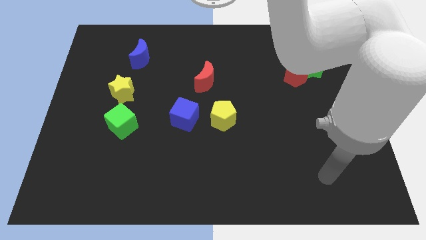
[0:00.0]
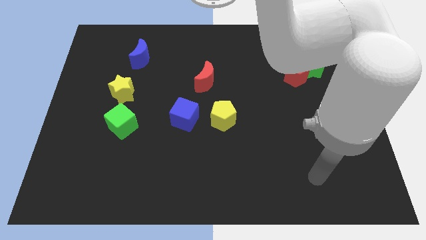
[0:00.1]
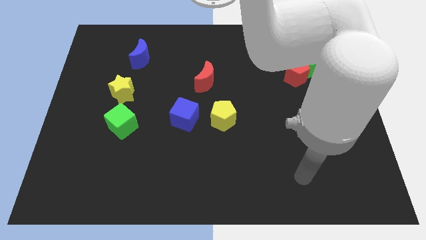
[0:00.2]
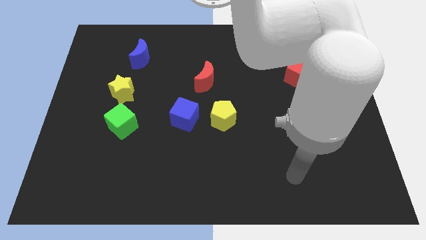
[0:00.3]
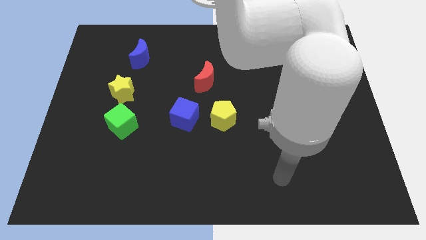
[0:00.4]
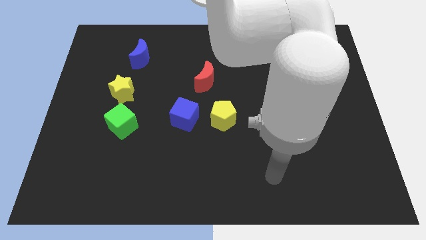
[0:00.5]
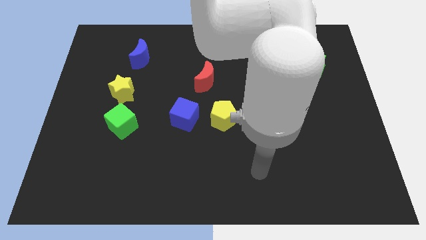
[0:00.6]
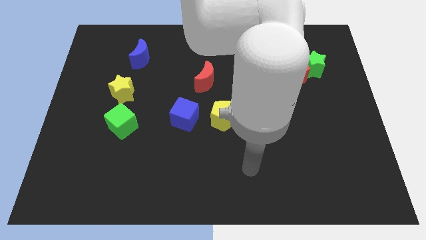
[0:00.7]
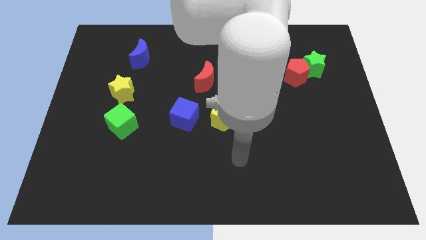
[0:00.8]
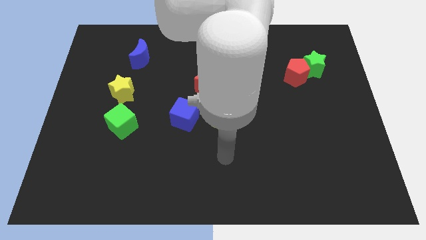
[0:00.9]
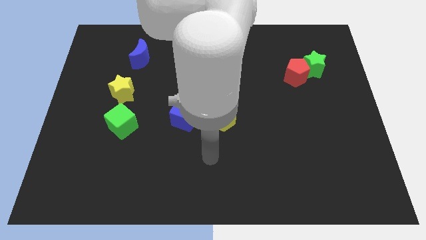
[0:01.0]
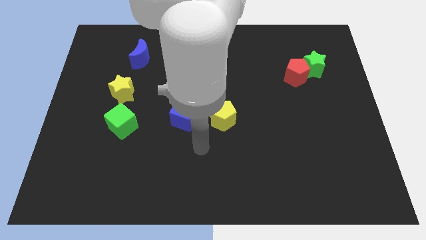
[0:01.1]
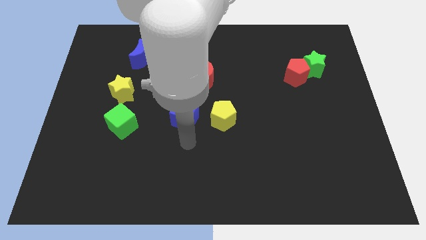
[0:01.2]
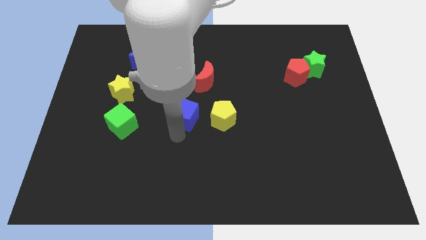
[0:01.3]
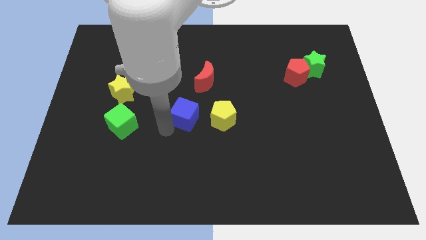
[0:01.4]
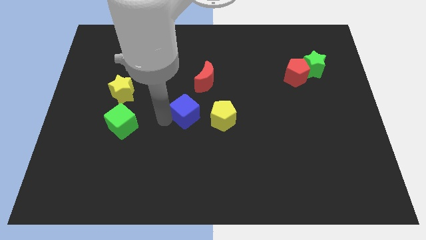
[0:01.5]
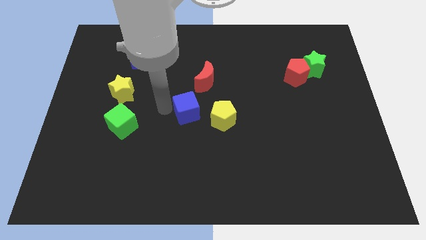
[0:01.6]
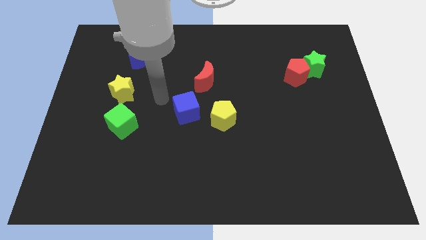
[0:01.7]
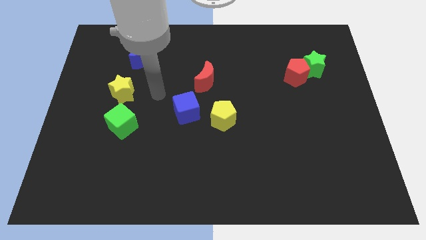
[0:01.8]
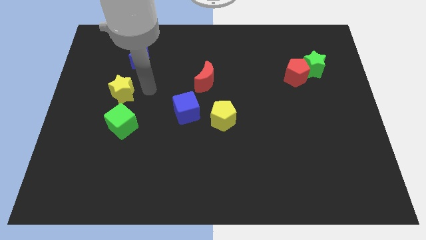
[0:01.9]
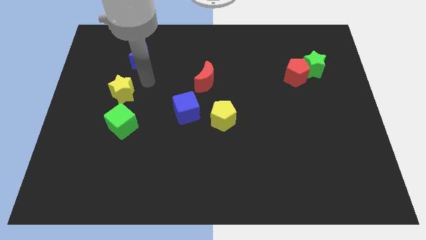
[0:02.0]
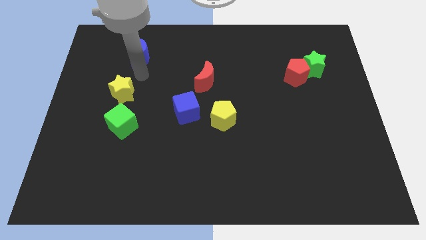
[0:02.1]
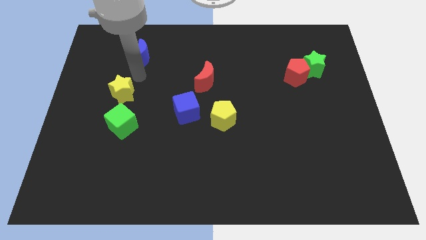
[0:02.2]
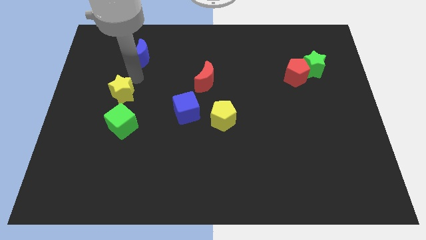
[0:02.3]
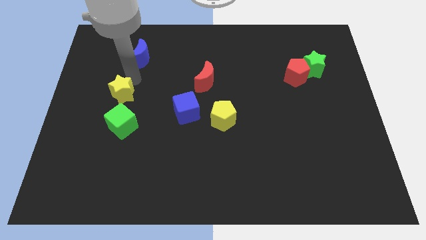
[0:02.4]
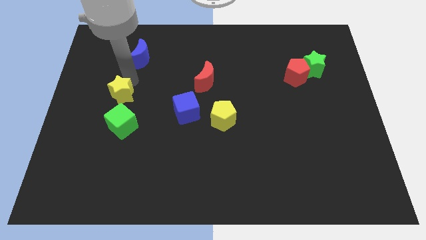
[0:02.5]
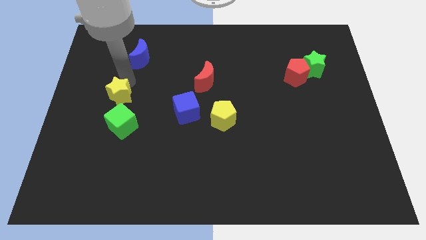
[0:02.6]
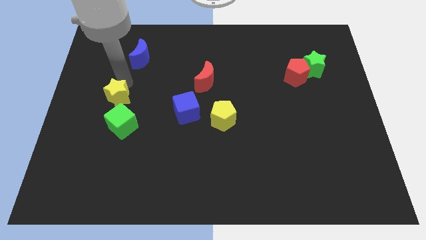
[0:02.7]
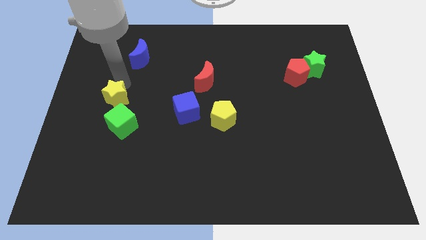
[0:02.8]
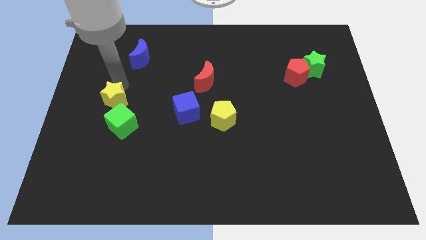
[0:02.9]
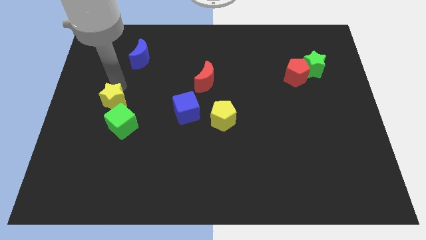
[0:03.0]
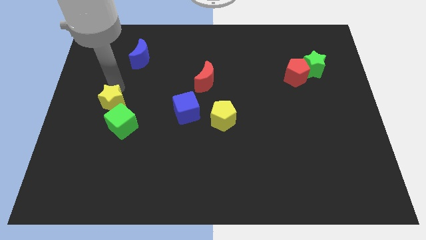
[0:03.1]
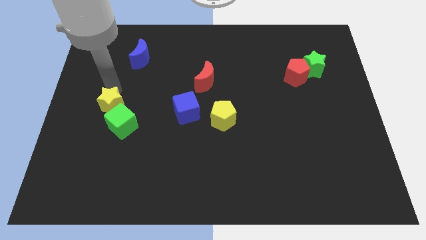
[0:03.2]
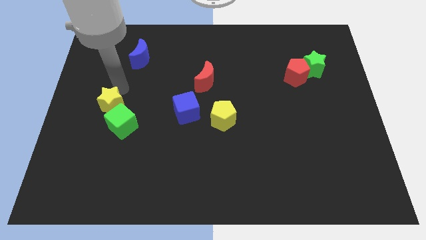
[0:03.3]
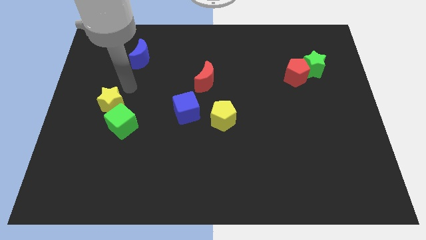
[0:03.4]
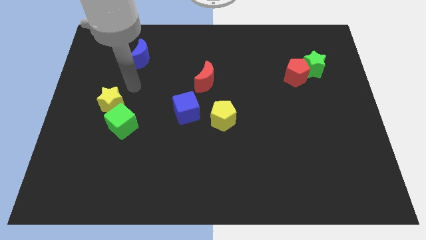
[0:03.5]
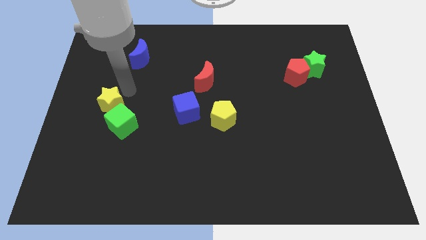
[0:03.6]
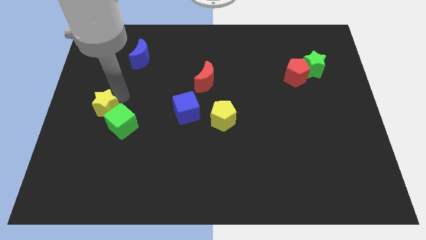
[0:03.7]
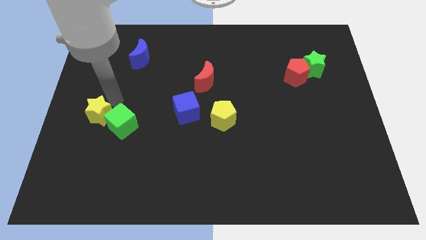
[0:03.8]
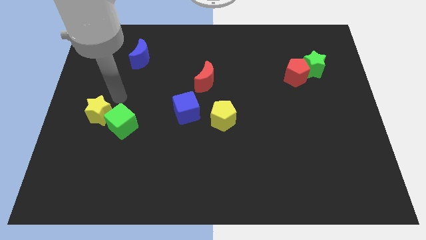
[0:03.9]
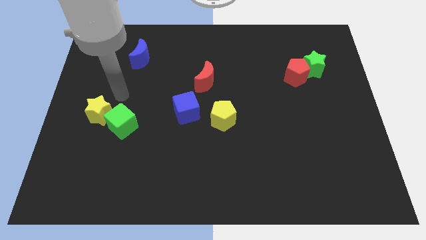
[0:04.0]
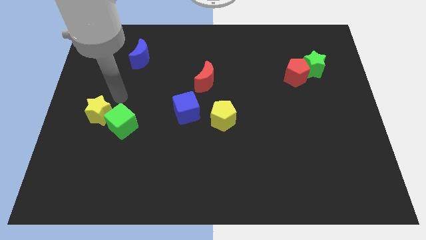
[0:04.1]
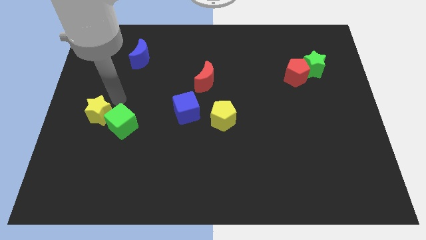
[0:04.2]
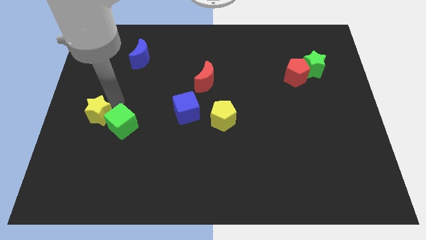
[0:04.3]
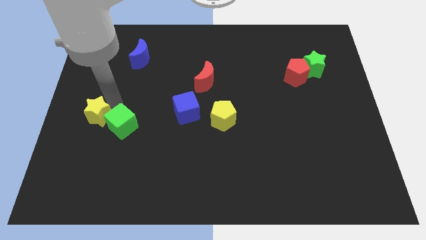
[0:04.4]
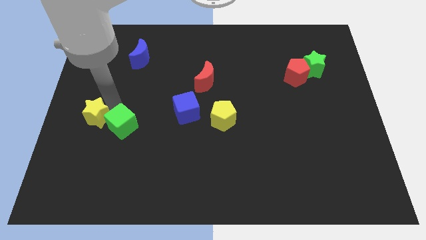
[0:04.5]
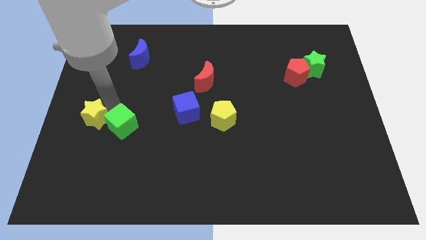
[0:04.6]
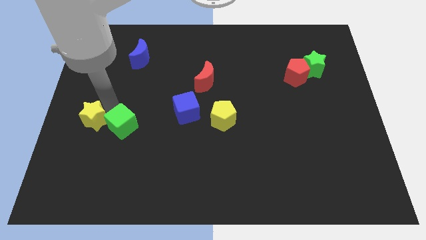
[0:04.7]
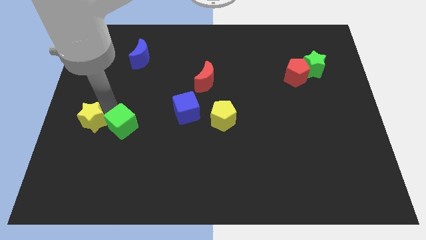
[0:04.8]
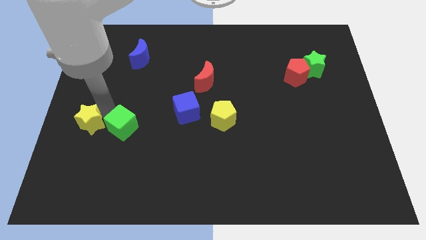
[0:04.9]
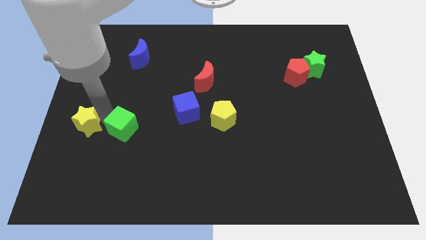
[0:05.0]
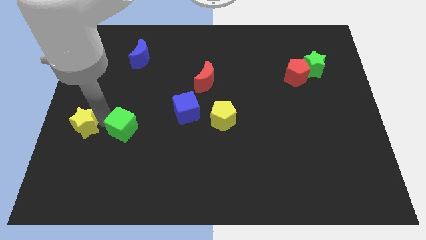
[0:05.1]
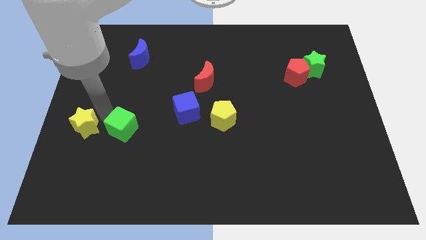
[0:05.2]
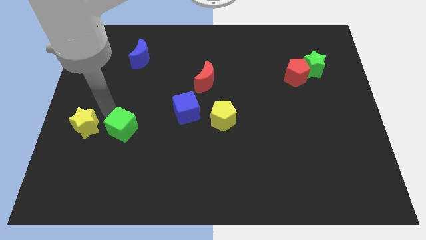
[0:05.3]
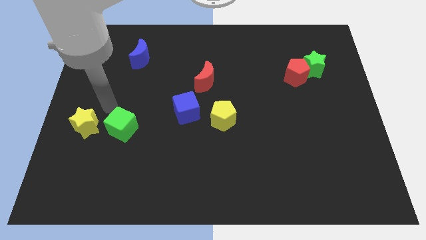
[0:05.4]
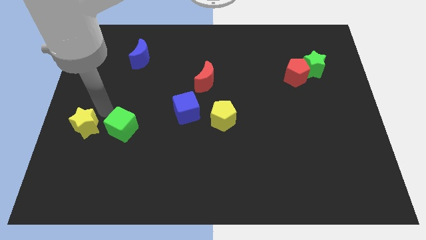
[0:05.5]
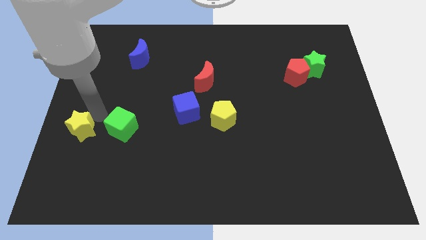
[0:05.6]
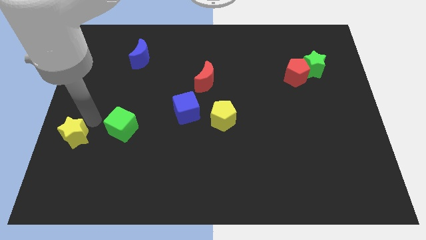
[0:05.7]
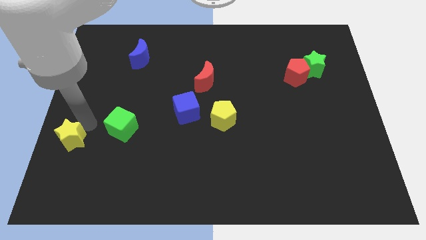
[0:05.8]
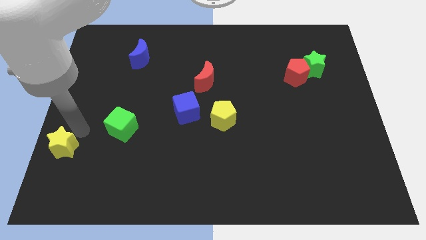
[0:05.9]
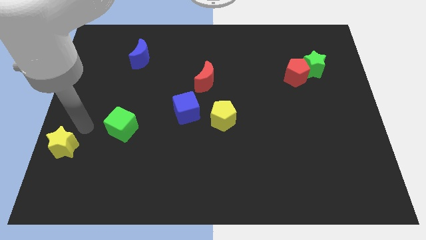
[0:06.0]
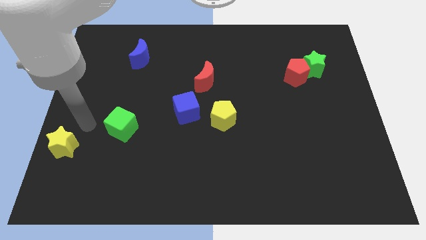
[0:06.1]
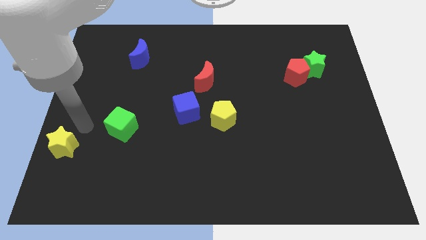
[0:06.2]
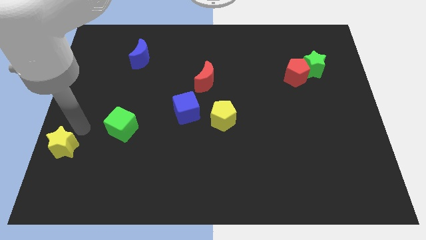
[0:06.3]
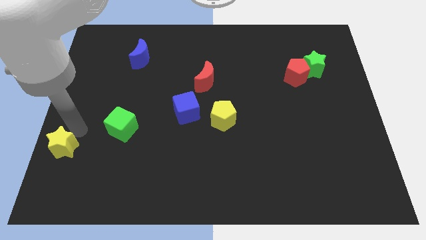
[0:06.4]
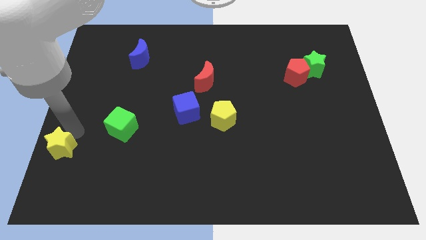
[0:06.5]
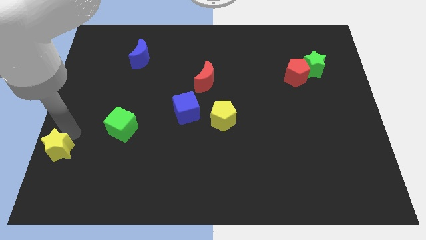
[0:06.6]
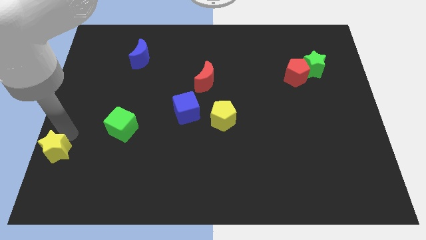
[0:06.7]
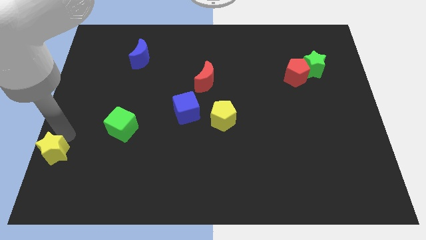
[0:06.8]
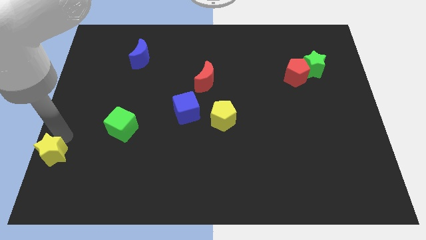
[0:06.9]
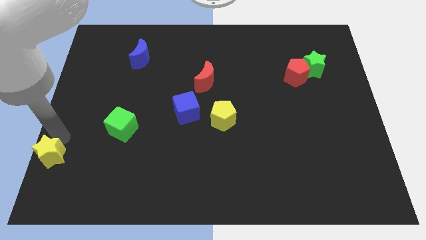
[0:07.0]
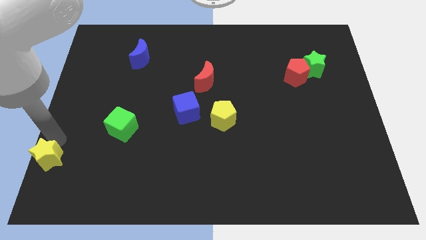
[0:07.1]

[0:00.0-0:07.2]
put the yellow star to the lower left corner
